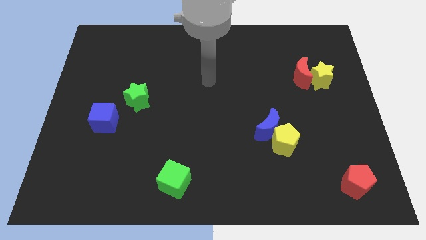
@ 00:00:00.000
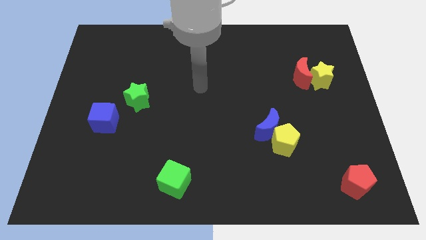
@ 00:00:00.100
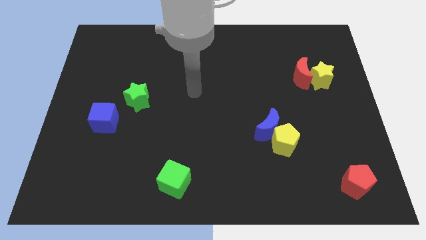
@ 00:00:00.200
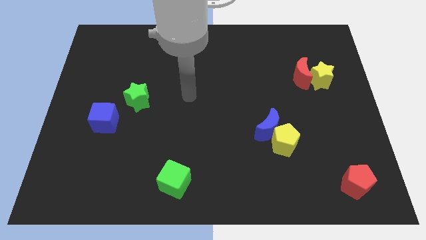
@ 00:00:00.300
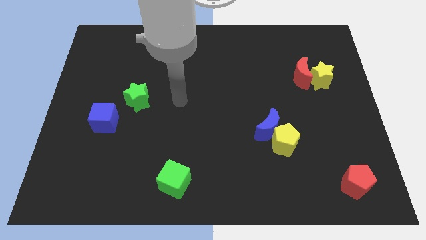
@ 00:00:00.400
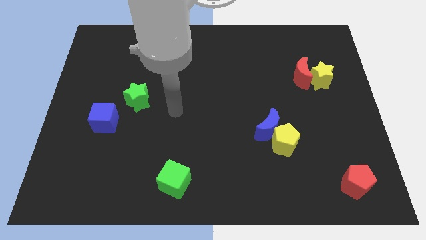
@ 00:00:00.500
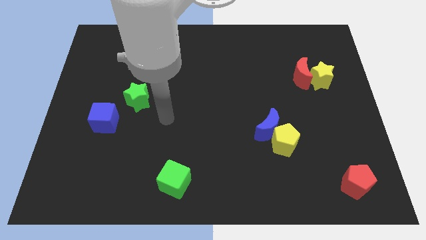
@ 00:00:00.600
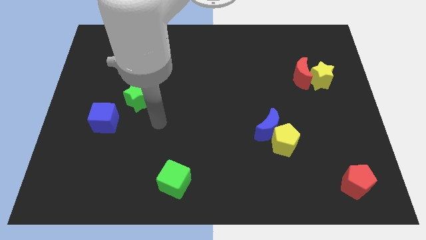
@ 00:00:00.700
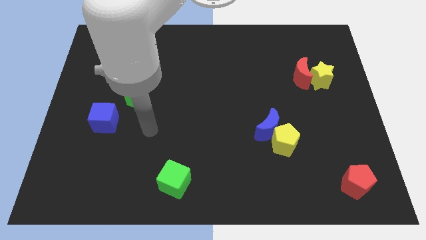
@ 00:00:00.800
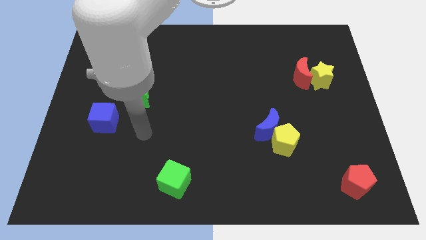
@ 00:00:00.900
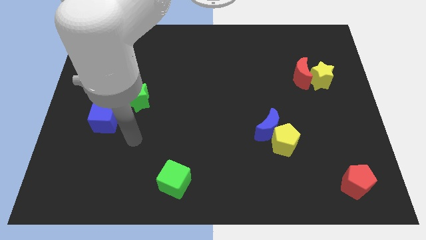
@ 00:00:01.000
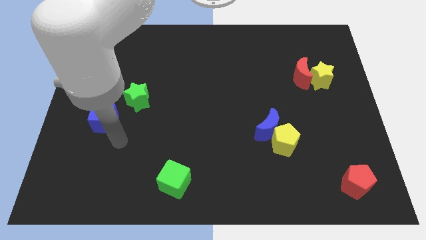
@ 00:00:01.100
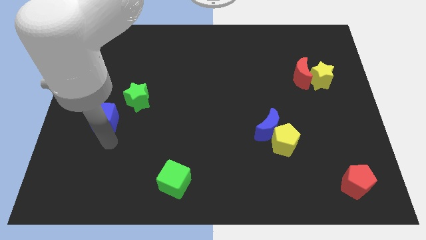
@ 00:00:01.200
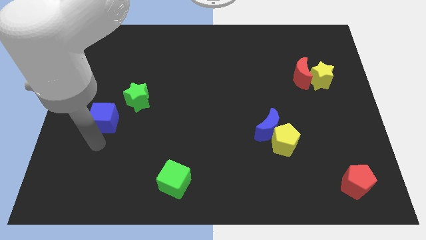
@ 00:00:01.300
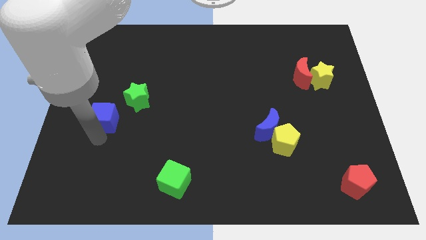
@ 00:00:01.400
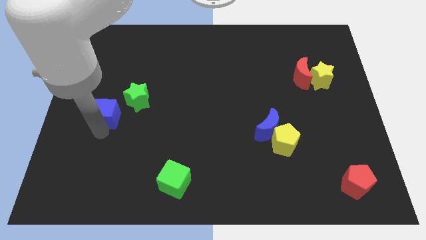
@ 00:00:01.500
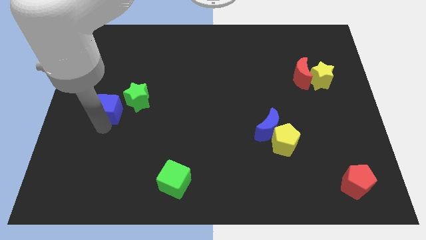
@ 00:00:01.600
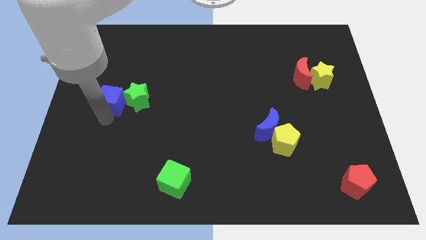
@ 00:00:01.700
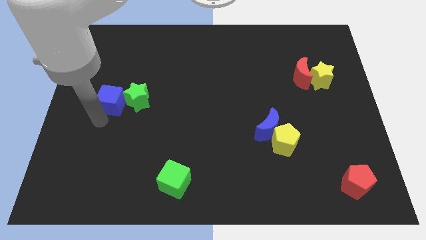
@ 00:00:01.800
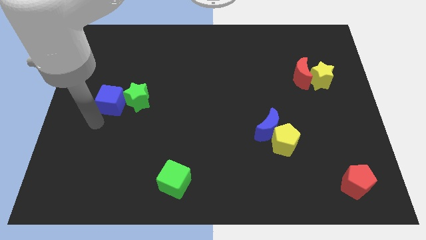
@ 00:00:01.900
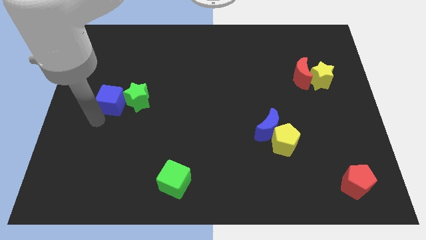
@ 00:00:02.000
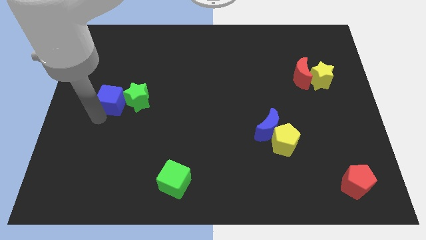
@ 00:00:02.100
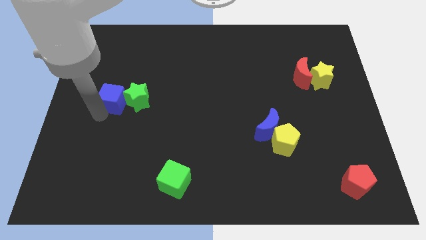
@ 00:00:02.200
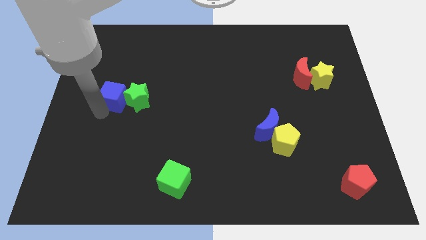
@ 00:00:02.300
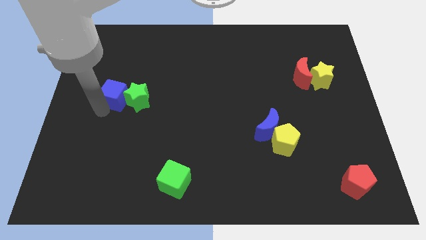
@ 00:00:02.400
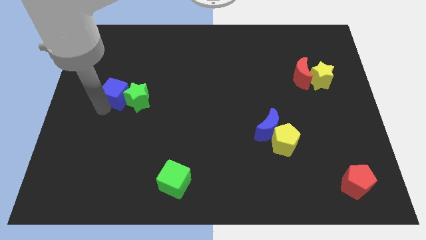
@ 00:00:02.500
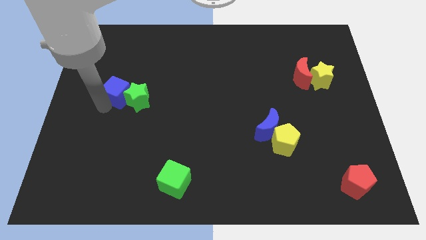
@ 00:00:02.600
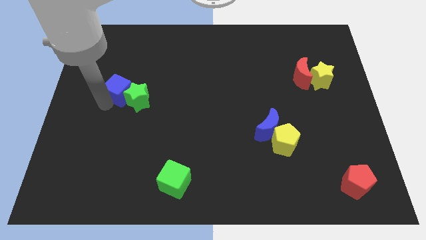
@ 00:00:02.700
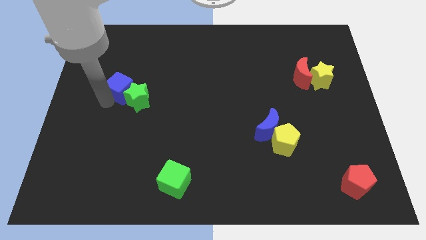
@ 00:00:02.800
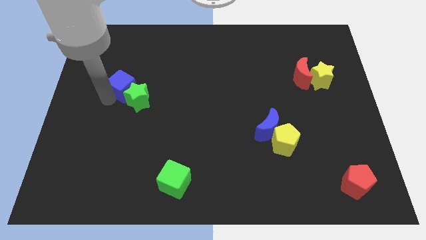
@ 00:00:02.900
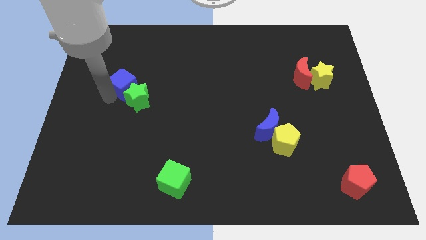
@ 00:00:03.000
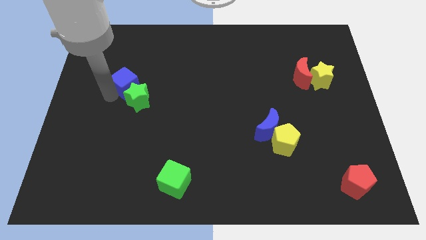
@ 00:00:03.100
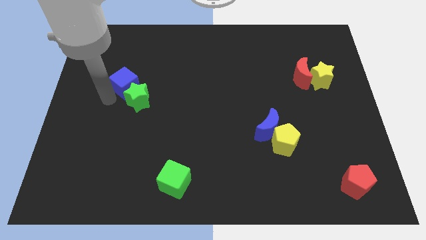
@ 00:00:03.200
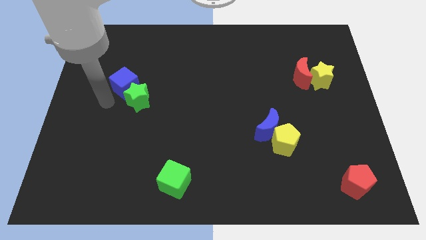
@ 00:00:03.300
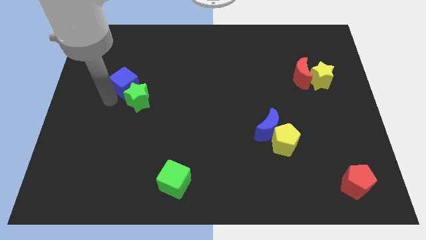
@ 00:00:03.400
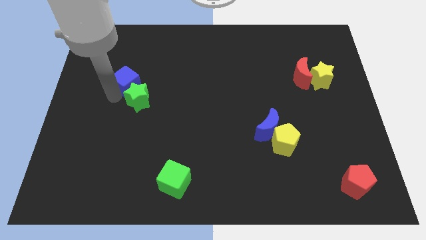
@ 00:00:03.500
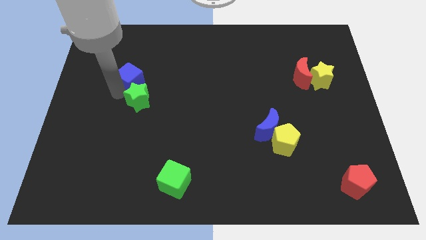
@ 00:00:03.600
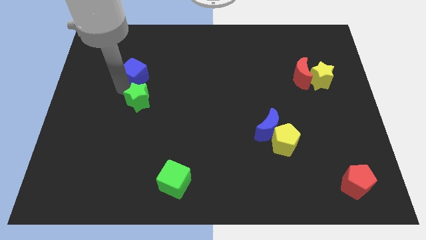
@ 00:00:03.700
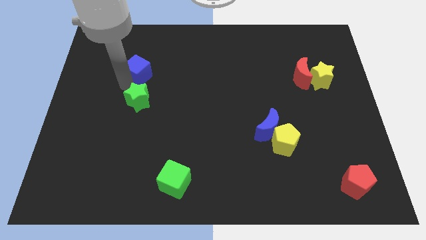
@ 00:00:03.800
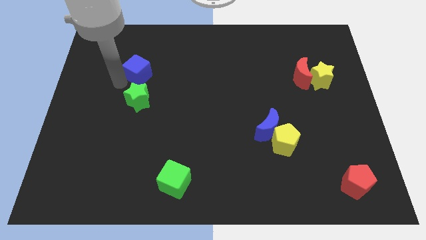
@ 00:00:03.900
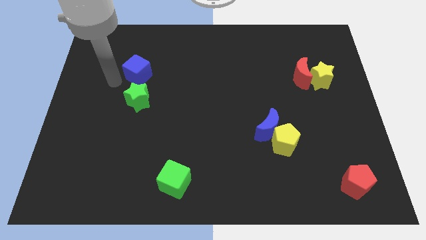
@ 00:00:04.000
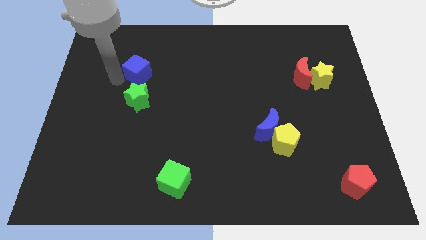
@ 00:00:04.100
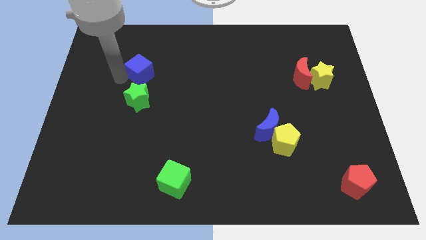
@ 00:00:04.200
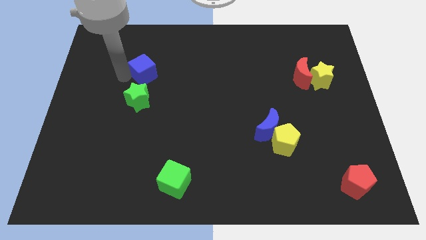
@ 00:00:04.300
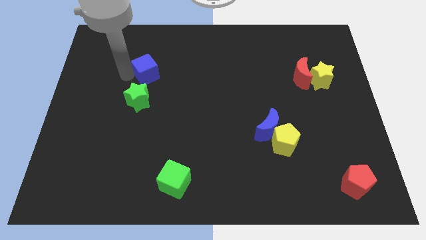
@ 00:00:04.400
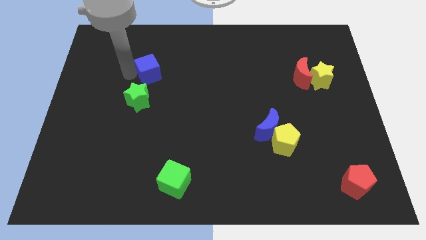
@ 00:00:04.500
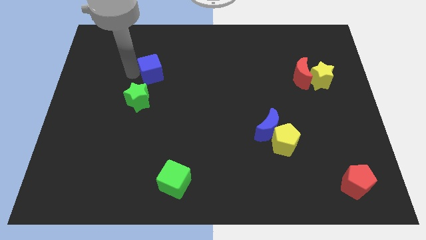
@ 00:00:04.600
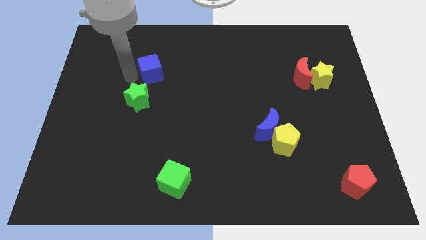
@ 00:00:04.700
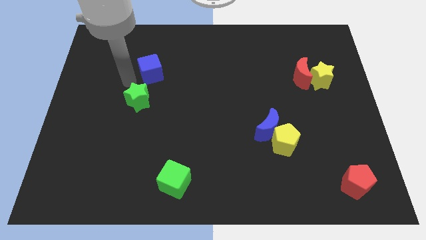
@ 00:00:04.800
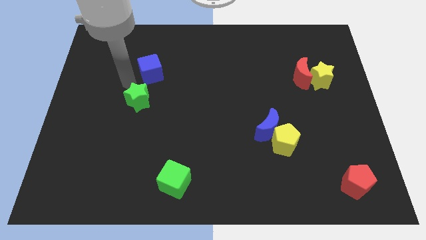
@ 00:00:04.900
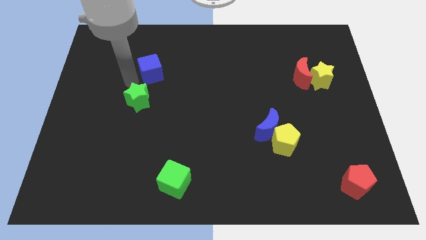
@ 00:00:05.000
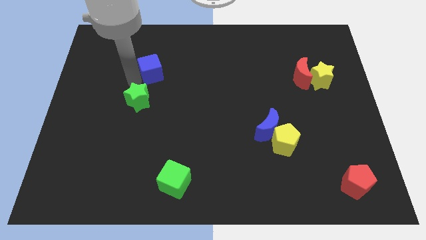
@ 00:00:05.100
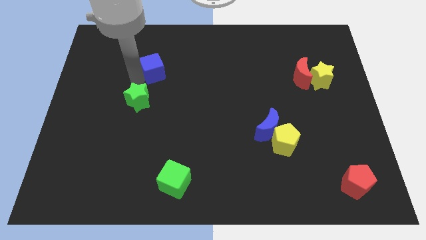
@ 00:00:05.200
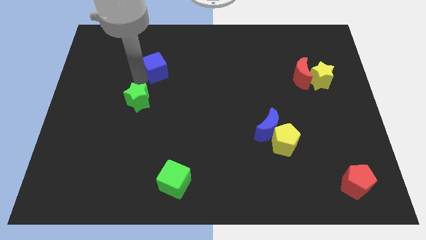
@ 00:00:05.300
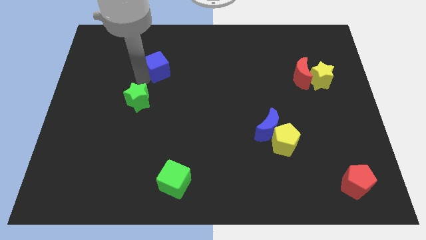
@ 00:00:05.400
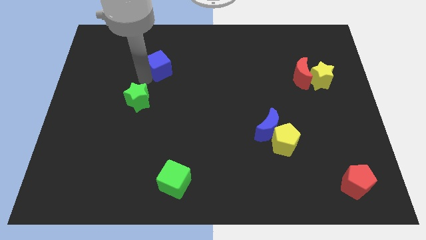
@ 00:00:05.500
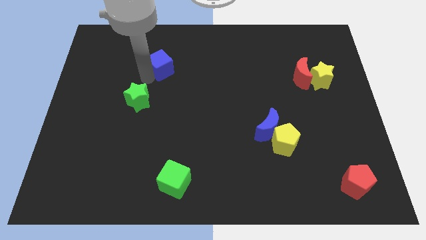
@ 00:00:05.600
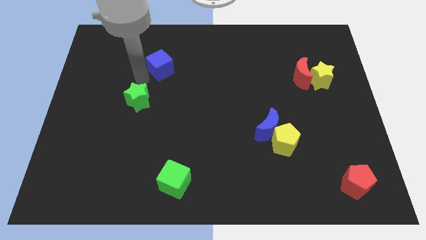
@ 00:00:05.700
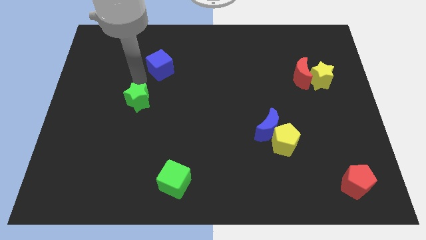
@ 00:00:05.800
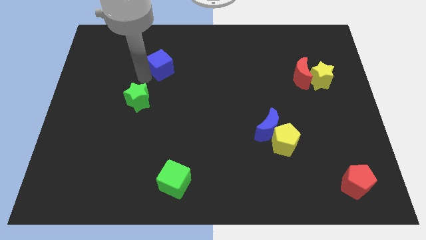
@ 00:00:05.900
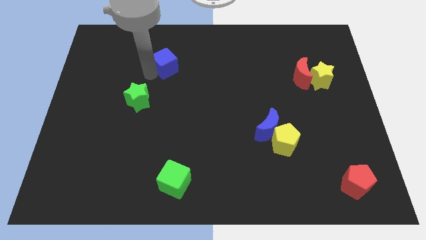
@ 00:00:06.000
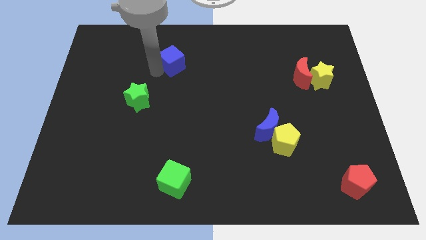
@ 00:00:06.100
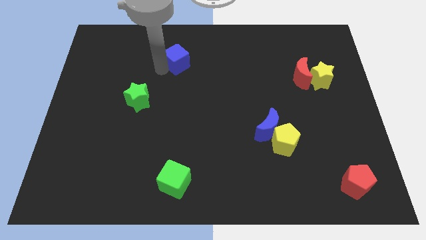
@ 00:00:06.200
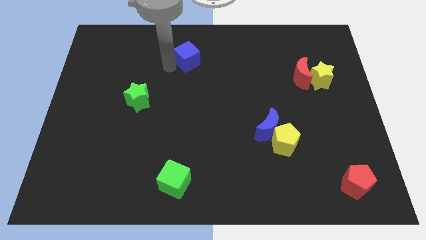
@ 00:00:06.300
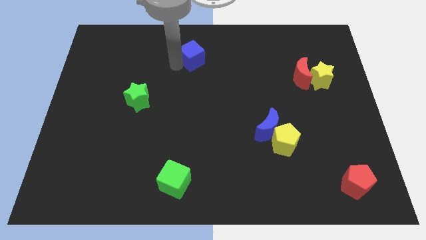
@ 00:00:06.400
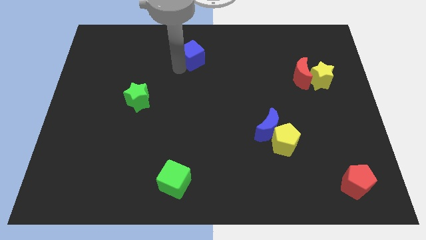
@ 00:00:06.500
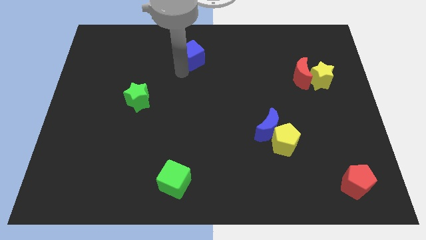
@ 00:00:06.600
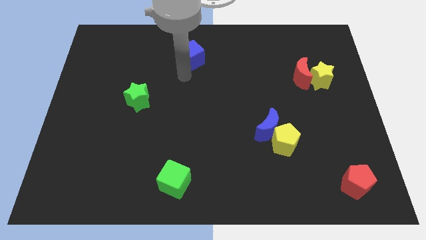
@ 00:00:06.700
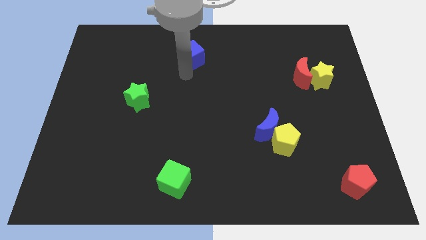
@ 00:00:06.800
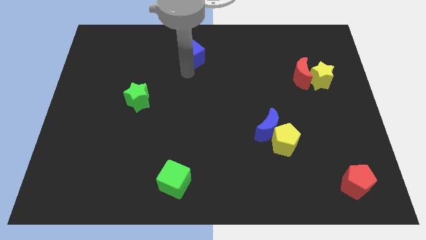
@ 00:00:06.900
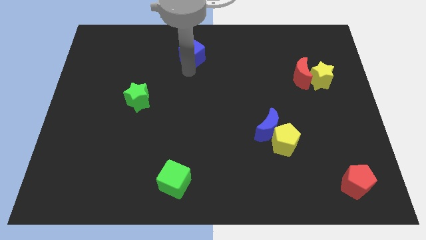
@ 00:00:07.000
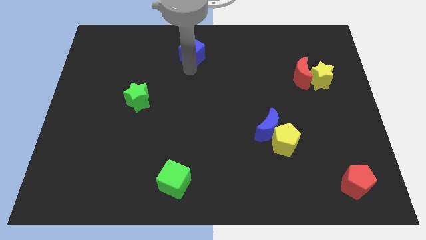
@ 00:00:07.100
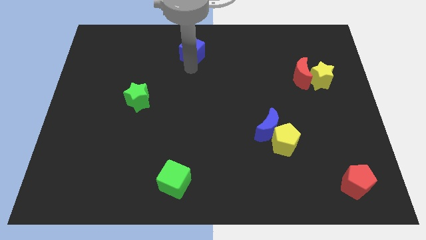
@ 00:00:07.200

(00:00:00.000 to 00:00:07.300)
move the blue cube to the towards your base
